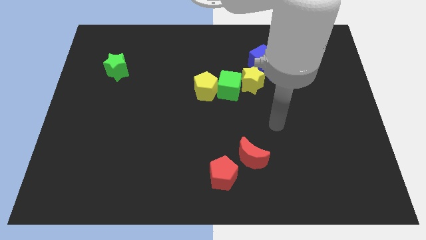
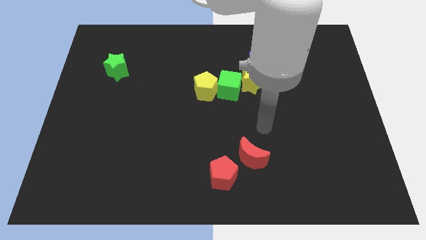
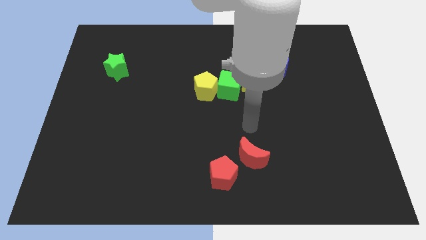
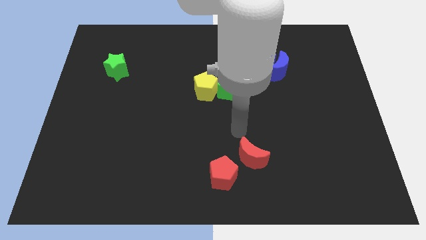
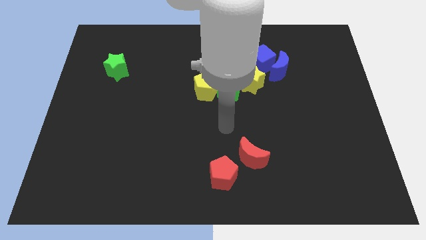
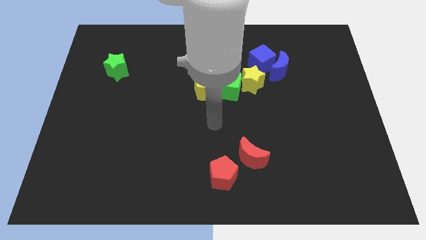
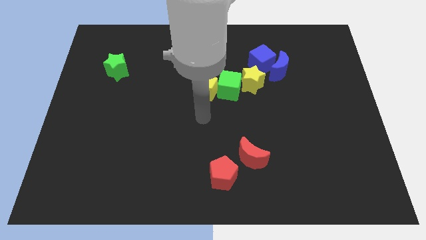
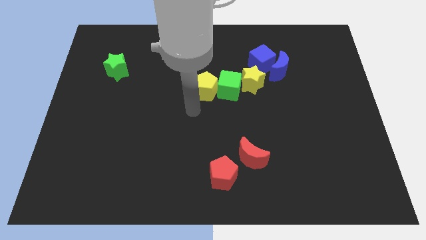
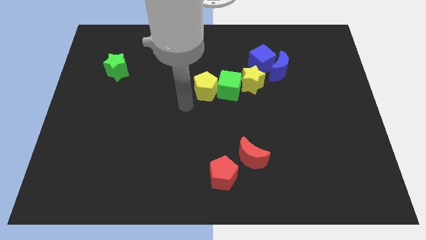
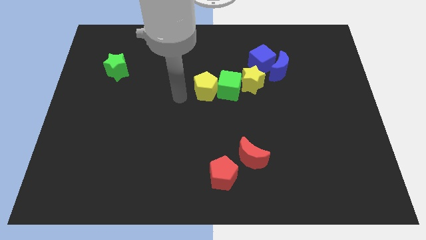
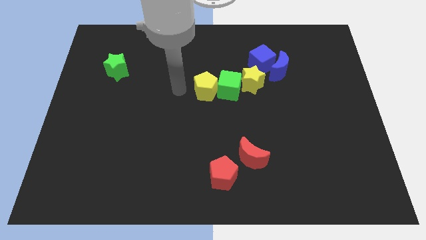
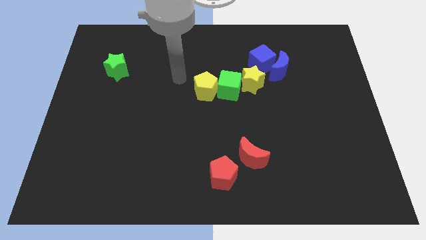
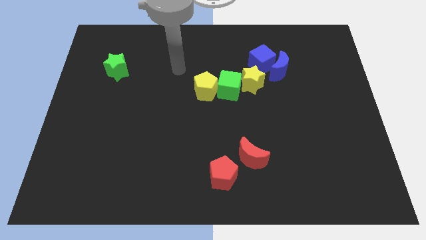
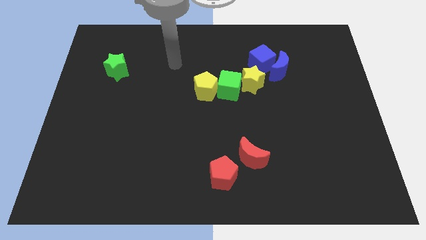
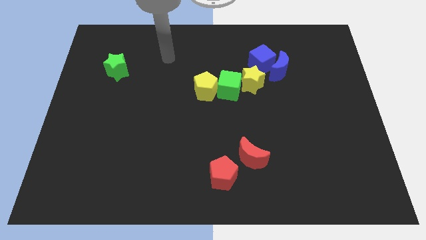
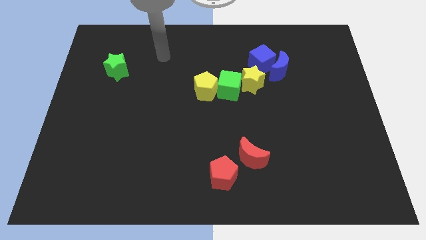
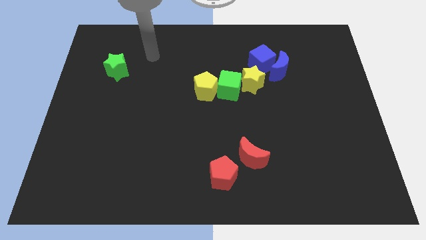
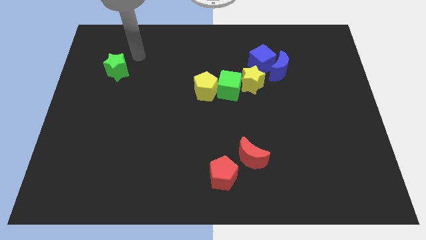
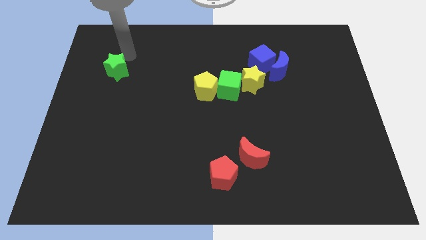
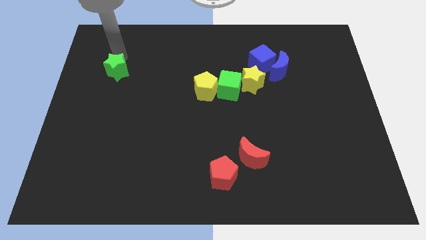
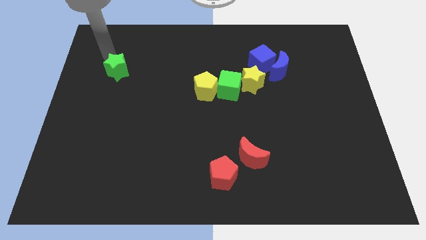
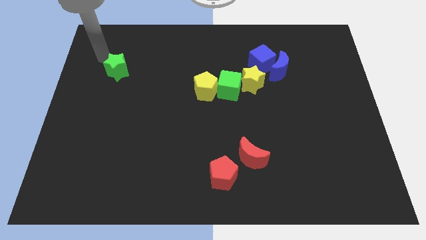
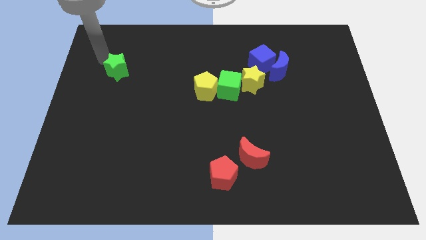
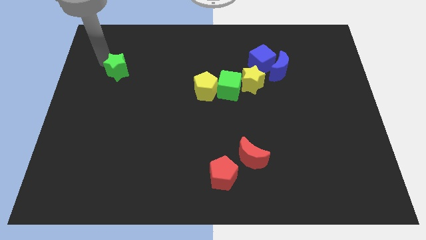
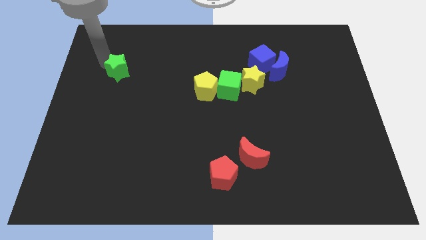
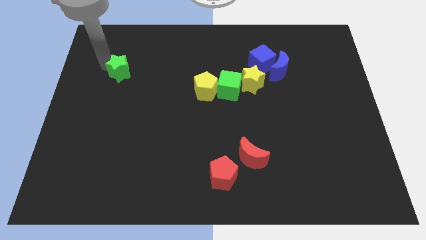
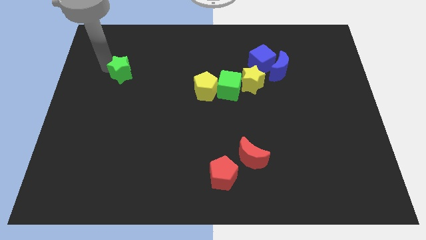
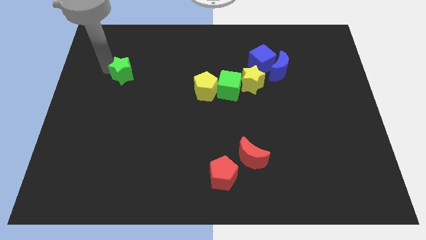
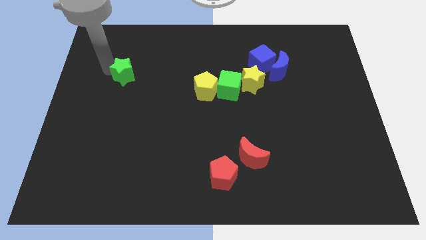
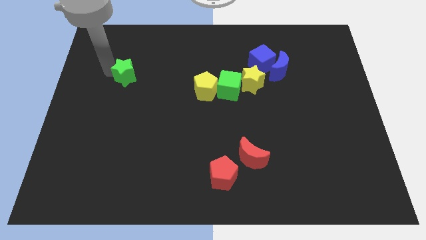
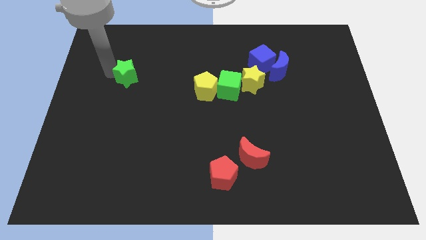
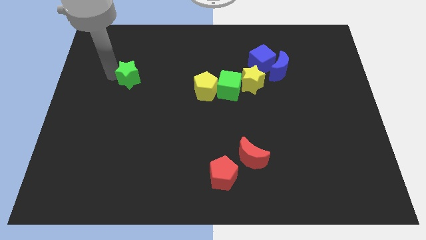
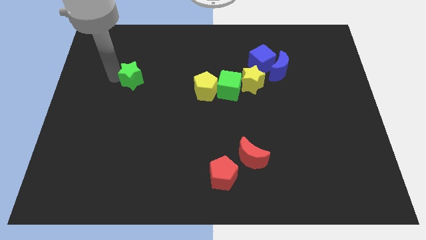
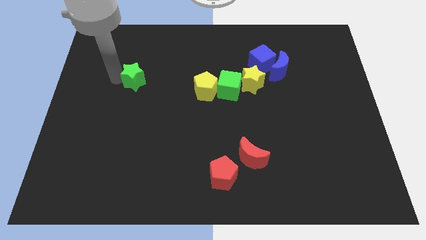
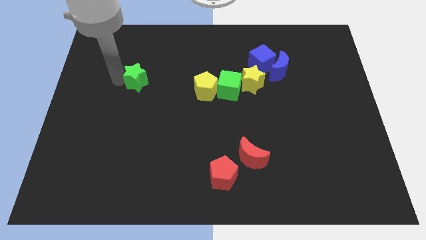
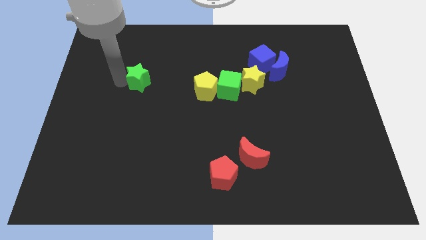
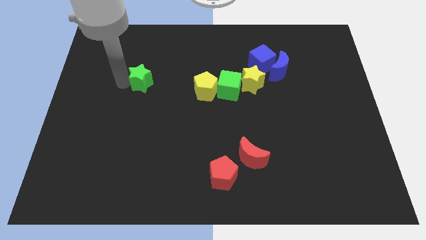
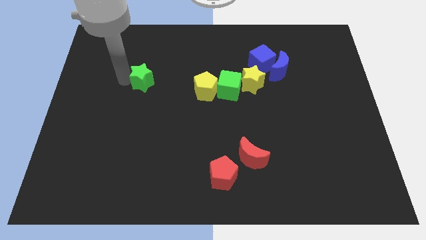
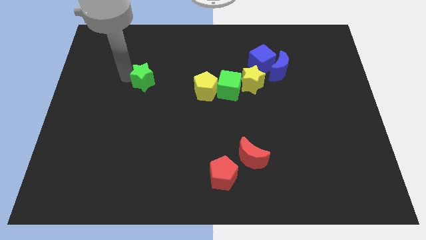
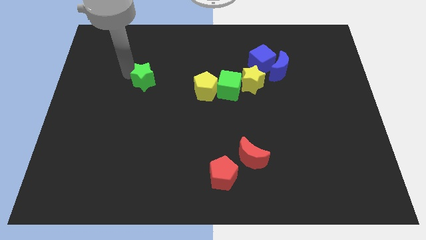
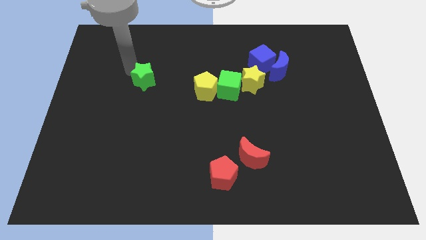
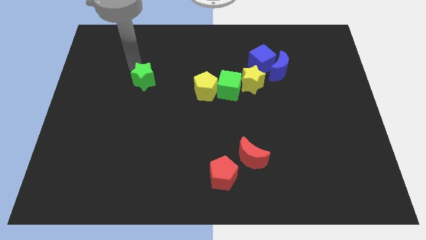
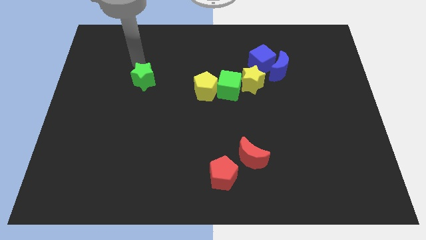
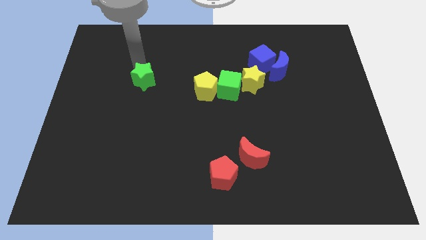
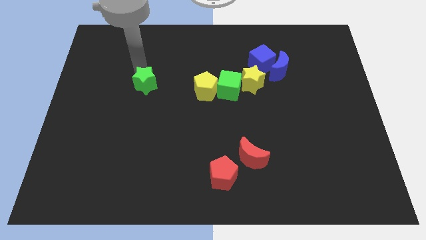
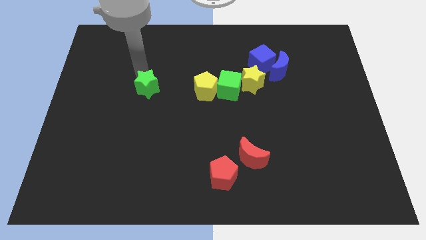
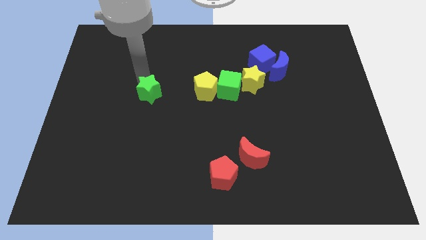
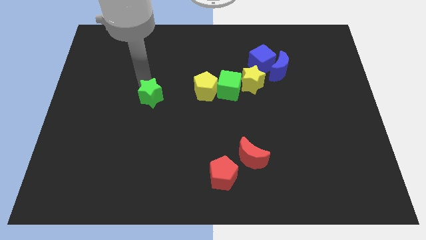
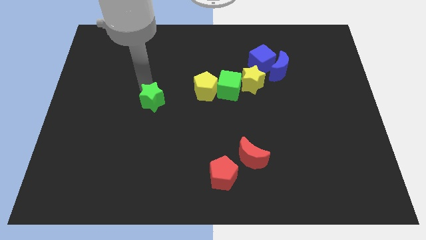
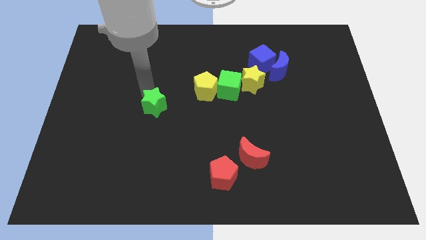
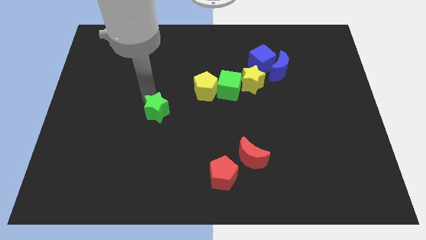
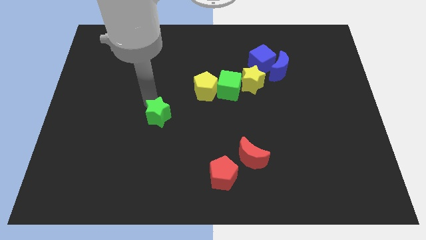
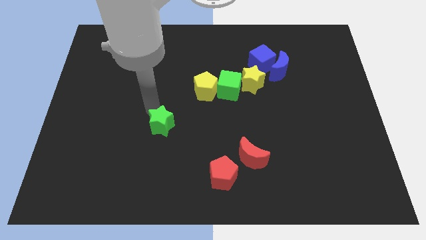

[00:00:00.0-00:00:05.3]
slide the green star downwards and right

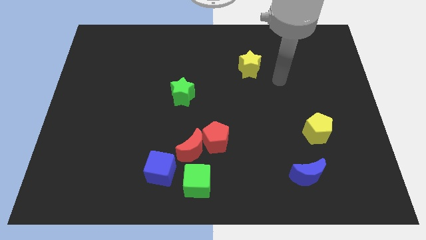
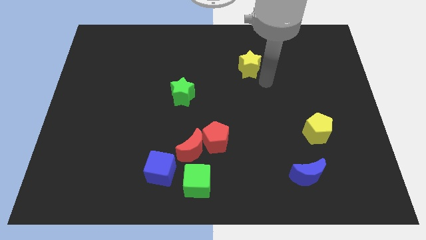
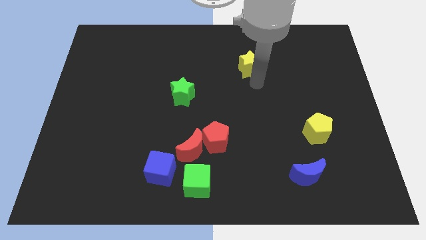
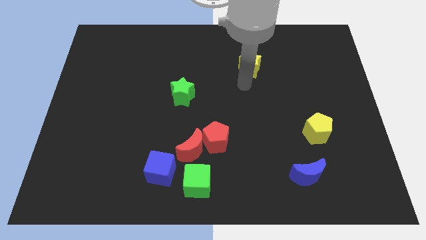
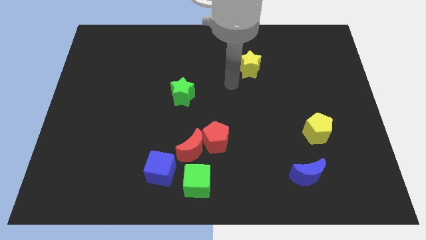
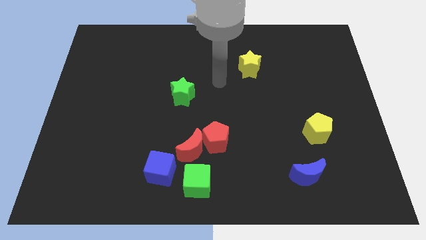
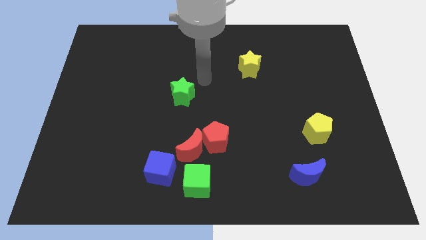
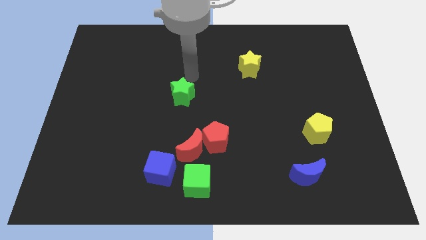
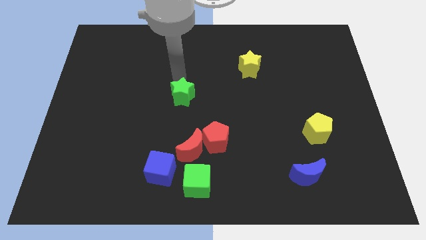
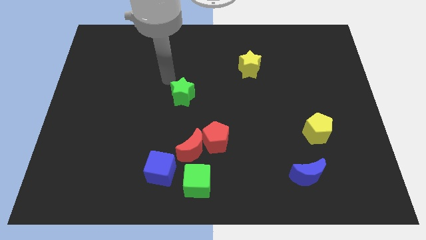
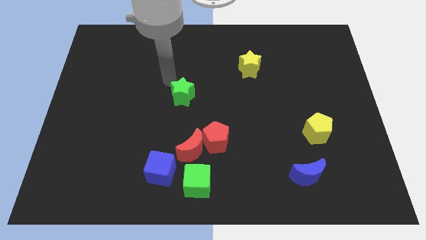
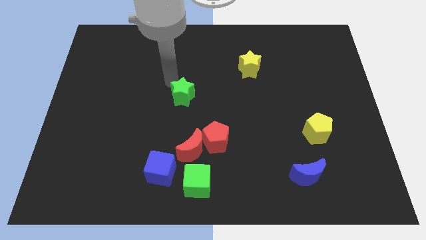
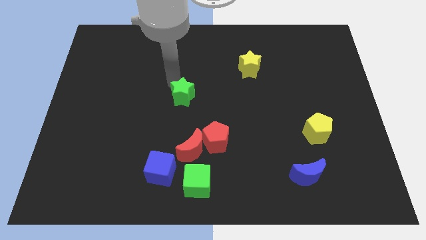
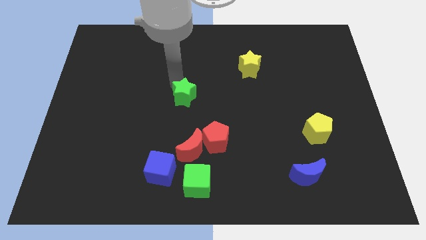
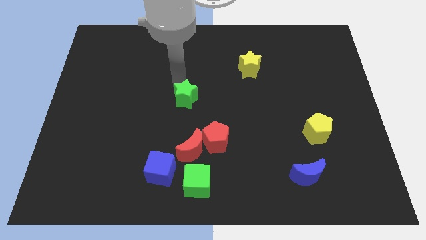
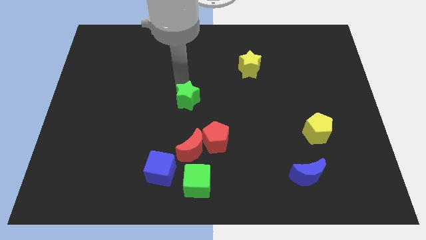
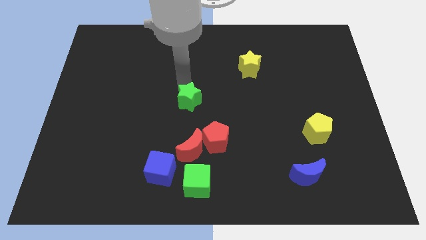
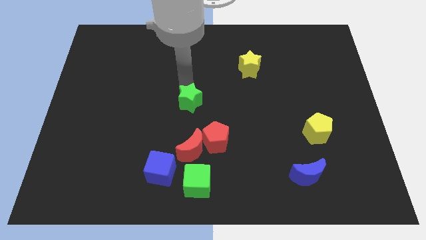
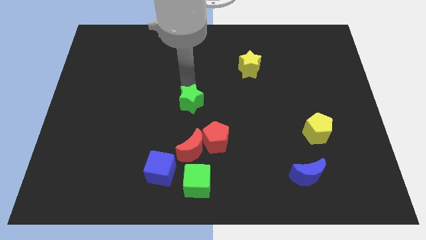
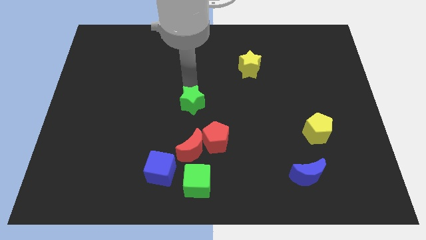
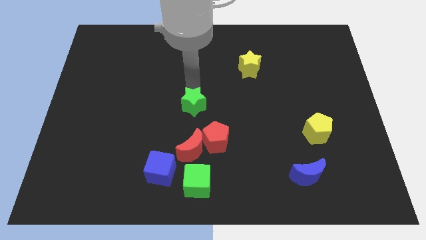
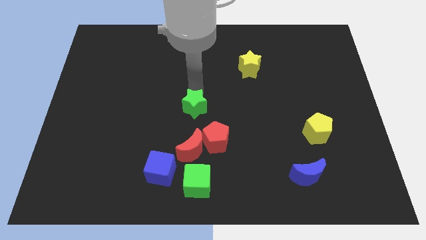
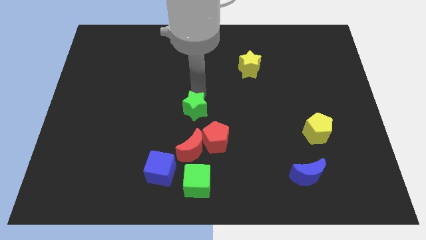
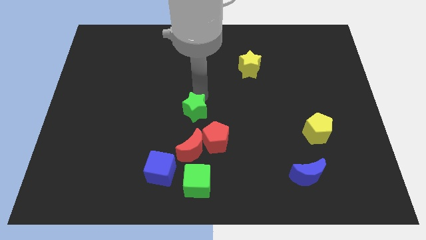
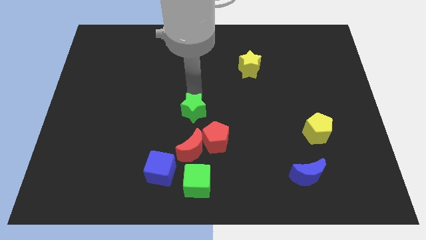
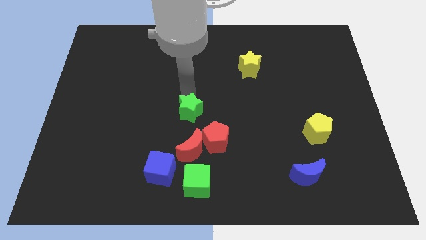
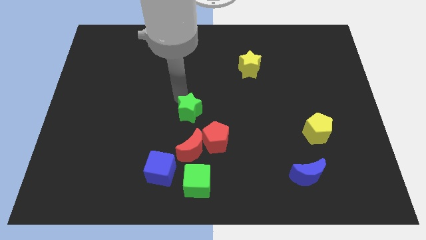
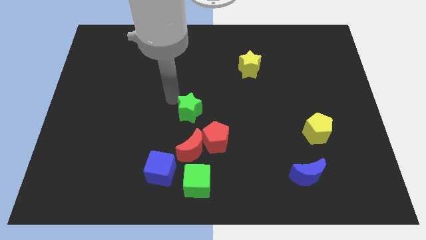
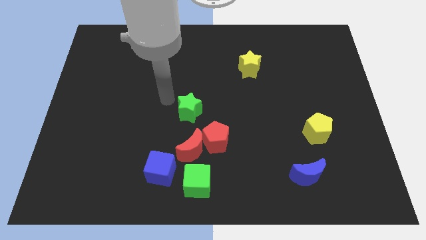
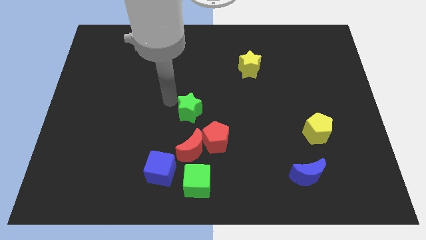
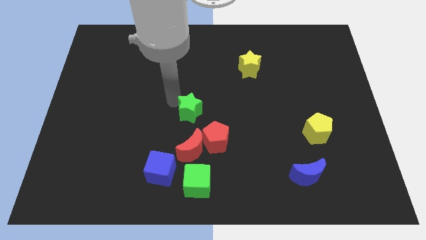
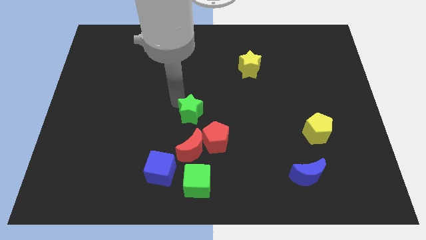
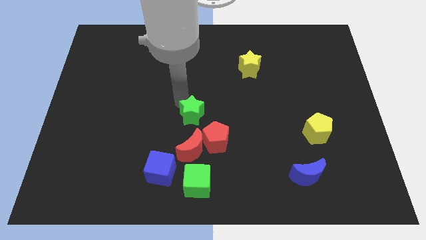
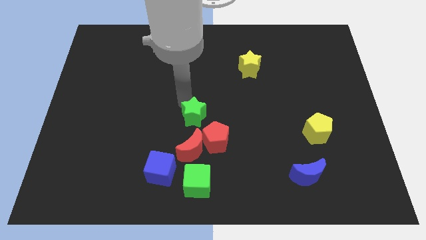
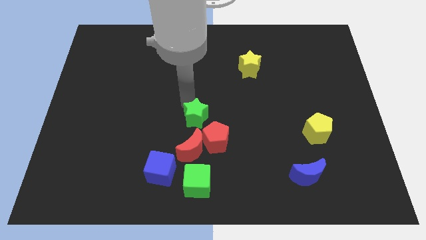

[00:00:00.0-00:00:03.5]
slightly push the green star diagonally down and to the right
